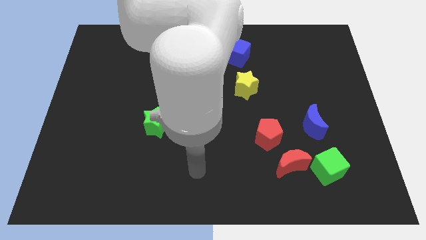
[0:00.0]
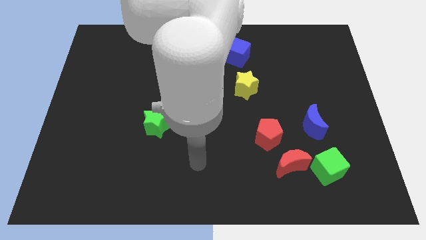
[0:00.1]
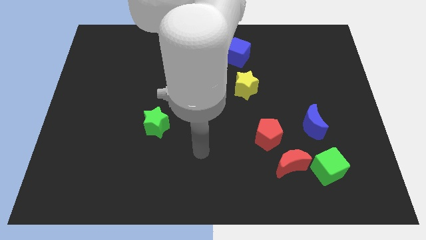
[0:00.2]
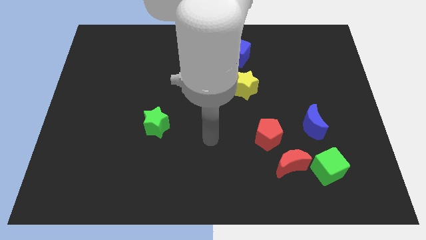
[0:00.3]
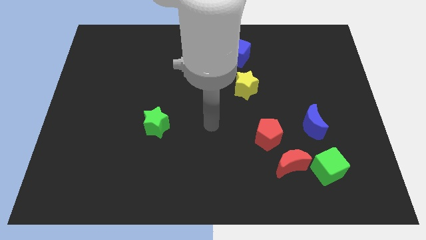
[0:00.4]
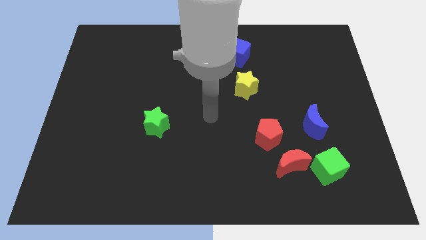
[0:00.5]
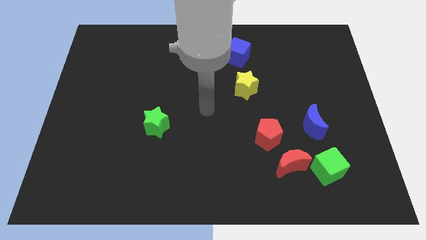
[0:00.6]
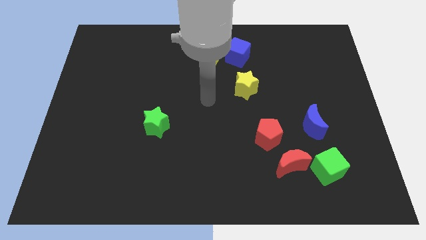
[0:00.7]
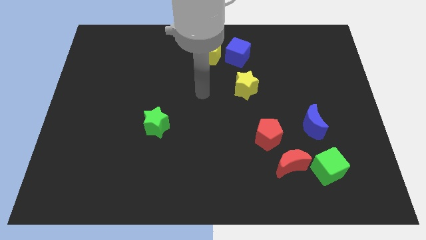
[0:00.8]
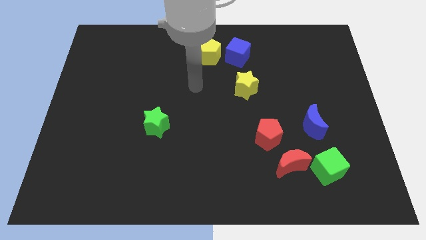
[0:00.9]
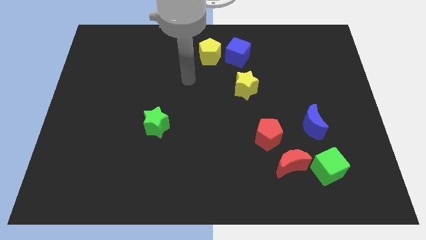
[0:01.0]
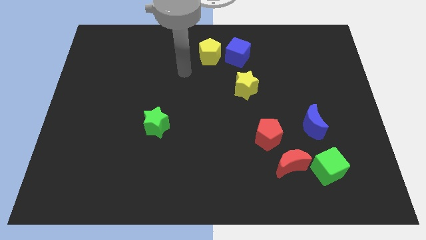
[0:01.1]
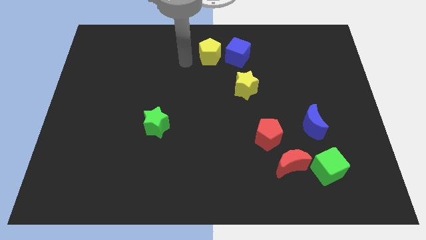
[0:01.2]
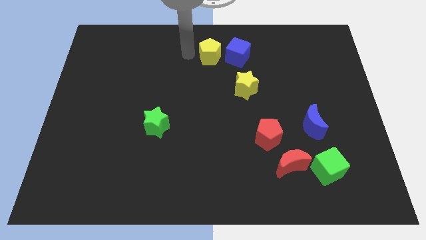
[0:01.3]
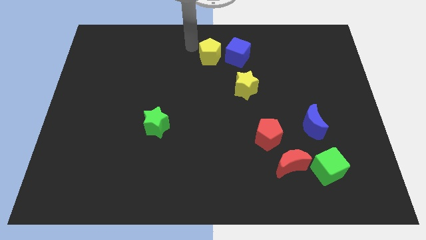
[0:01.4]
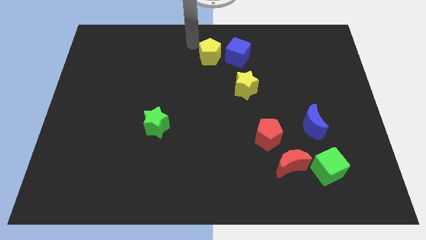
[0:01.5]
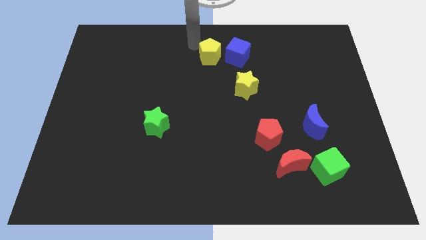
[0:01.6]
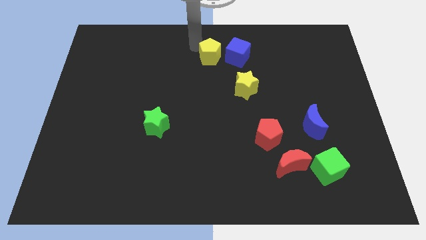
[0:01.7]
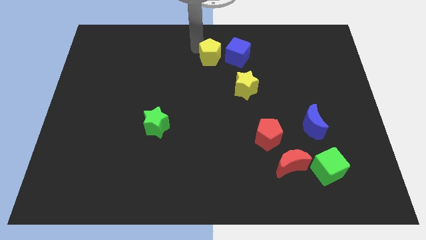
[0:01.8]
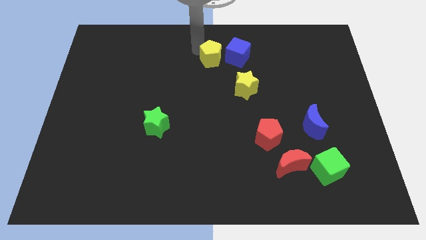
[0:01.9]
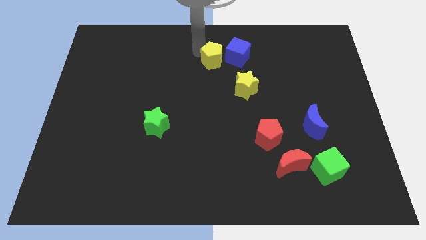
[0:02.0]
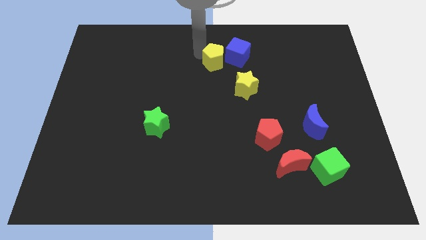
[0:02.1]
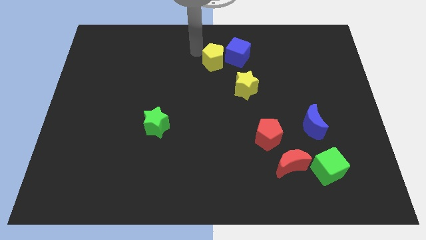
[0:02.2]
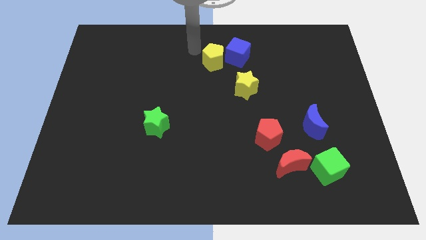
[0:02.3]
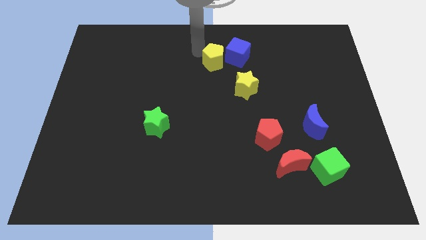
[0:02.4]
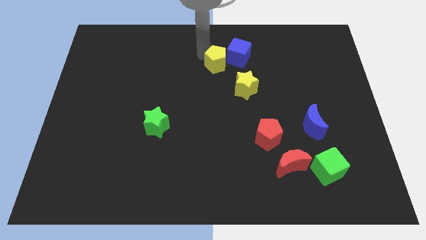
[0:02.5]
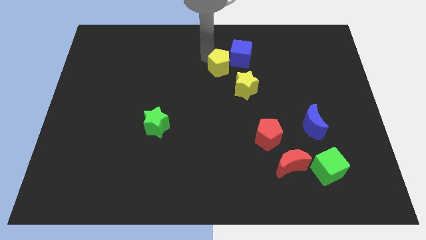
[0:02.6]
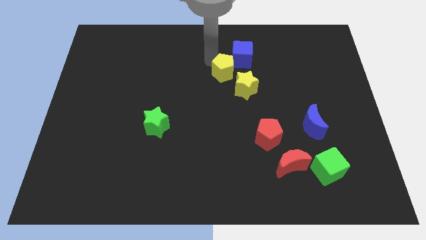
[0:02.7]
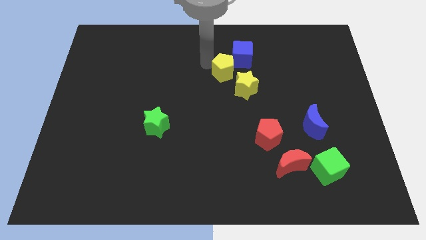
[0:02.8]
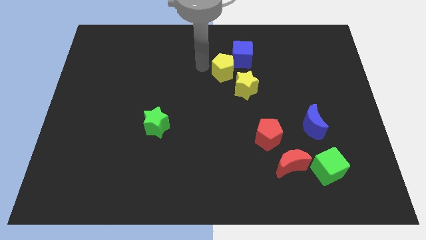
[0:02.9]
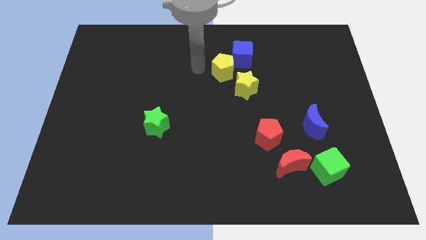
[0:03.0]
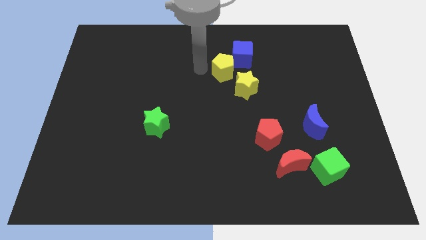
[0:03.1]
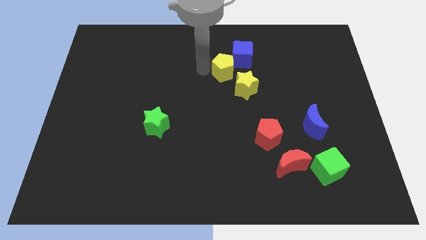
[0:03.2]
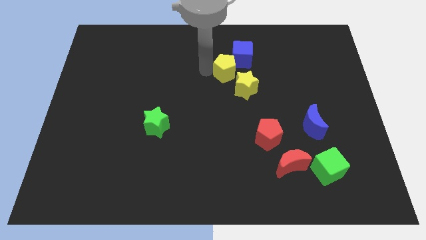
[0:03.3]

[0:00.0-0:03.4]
slide the yellow pentagon down and right a bit

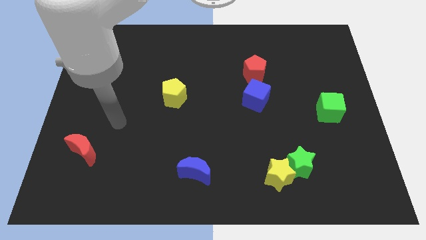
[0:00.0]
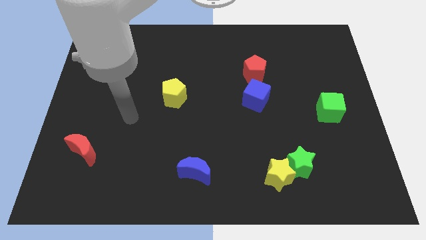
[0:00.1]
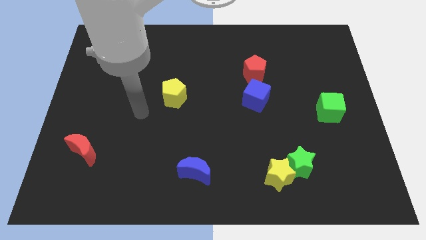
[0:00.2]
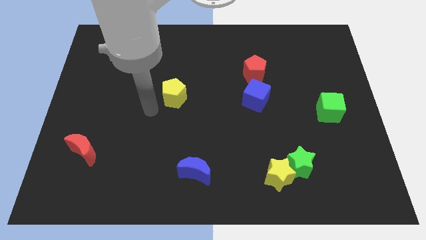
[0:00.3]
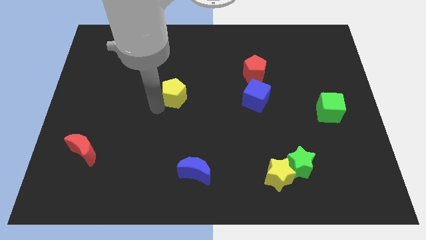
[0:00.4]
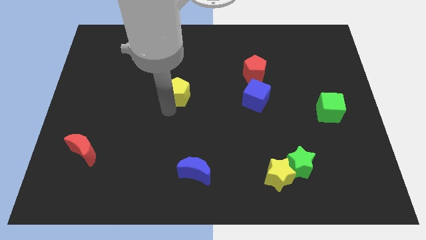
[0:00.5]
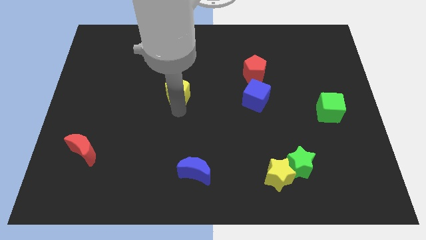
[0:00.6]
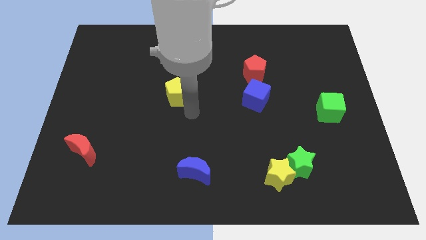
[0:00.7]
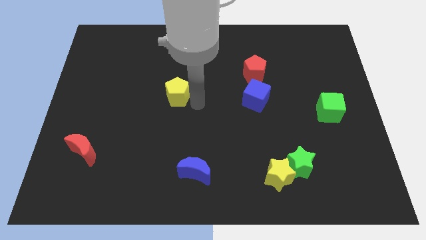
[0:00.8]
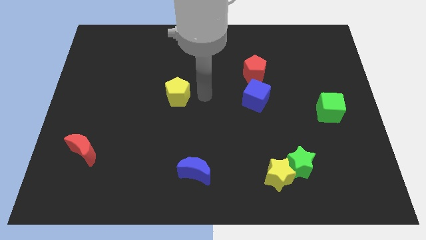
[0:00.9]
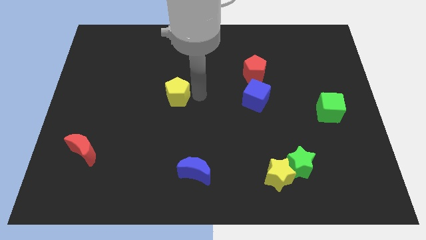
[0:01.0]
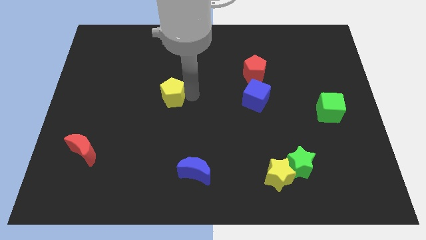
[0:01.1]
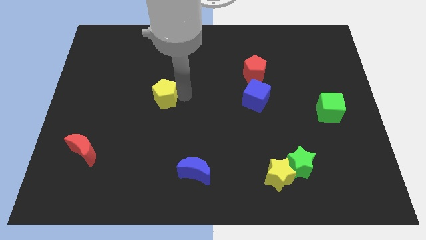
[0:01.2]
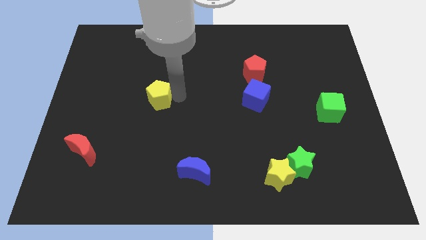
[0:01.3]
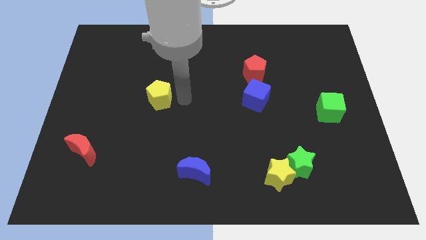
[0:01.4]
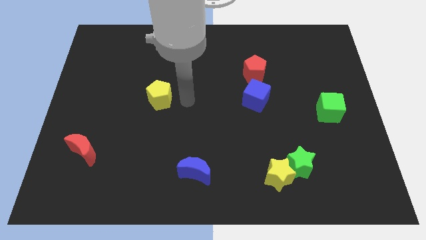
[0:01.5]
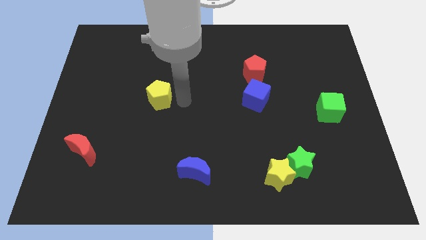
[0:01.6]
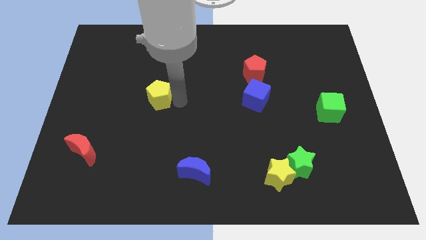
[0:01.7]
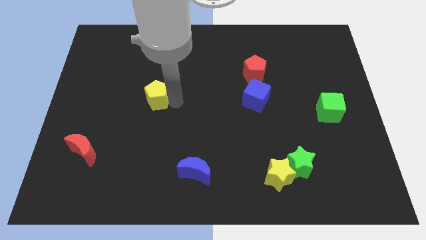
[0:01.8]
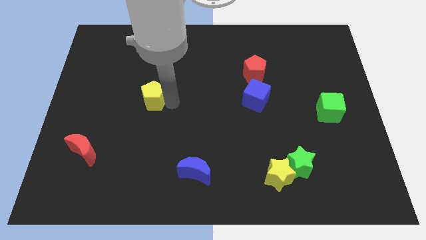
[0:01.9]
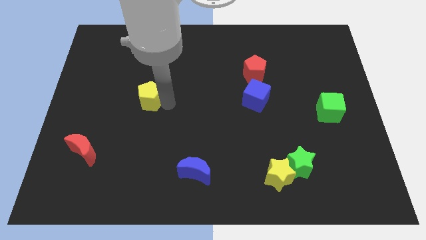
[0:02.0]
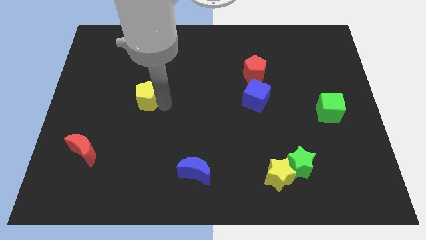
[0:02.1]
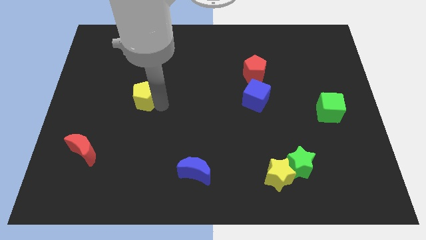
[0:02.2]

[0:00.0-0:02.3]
slightly slide the yellow pentagon to the left

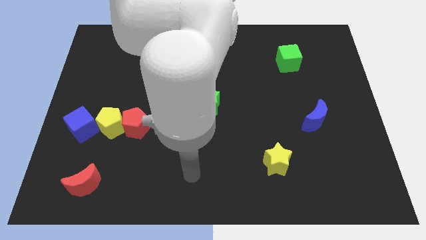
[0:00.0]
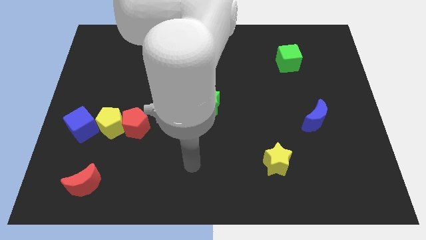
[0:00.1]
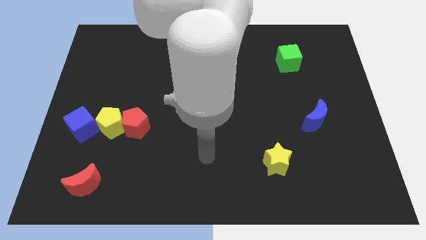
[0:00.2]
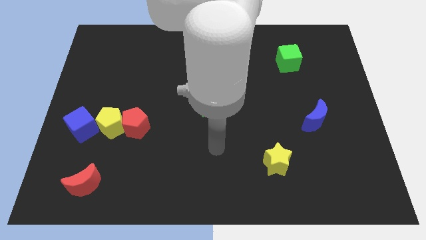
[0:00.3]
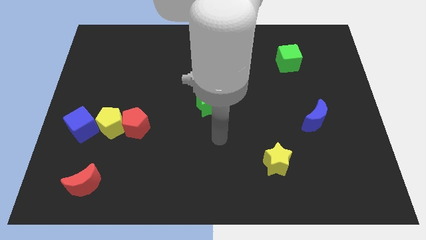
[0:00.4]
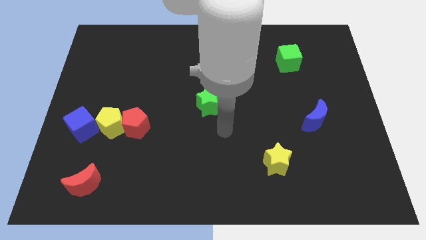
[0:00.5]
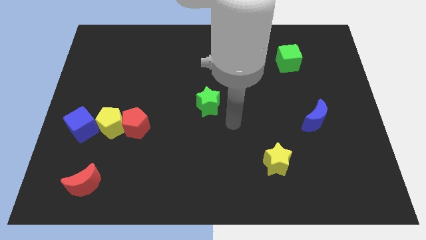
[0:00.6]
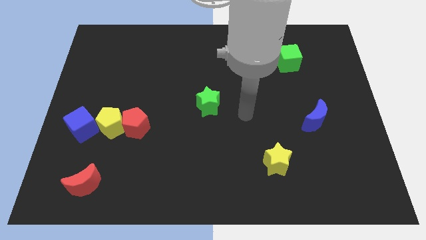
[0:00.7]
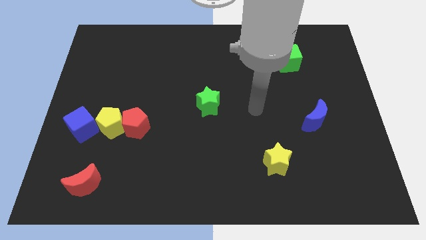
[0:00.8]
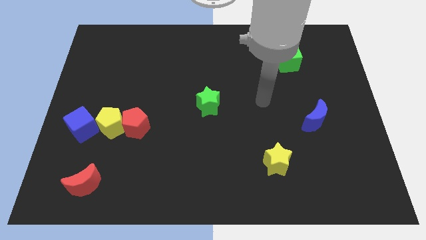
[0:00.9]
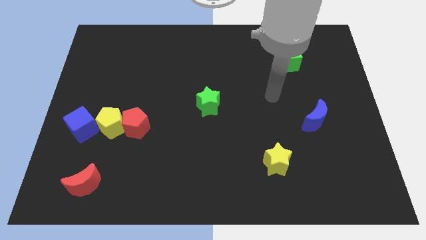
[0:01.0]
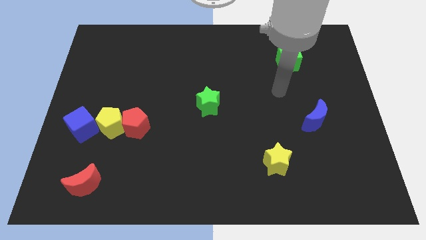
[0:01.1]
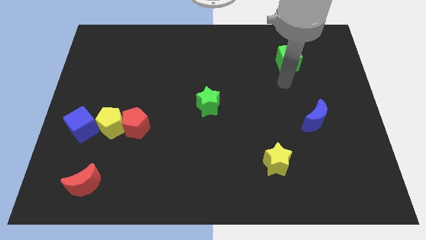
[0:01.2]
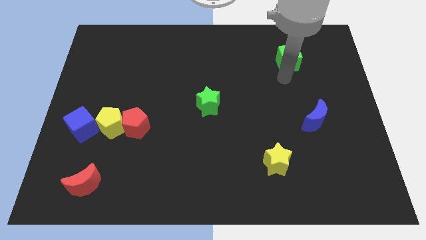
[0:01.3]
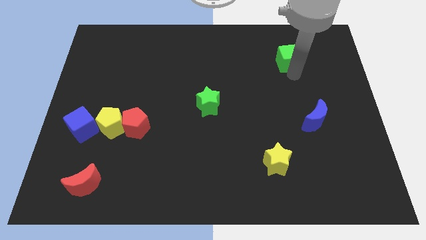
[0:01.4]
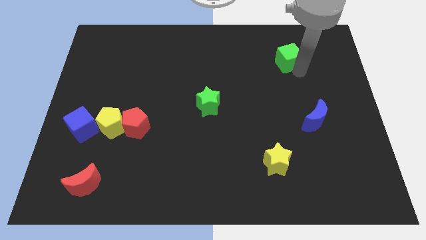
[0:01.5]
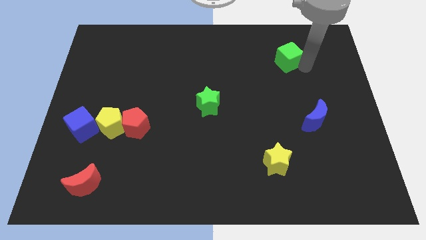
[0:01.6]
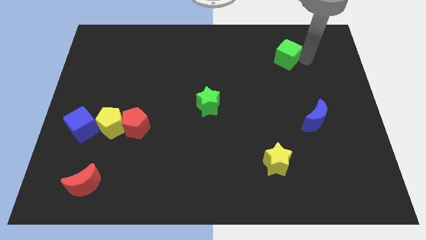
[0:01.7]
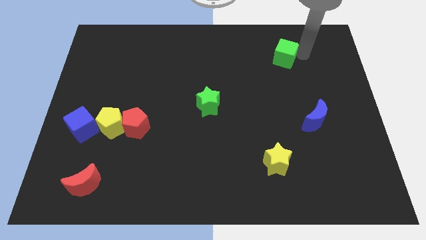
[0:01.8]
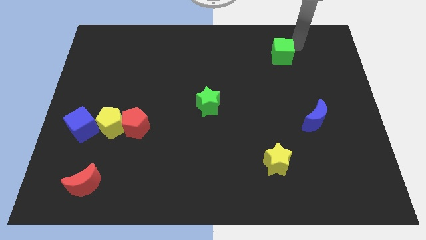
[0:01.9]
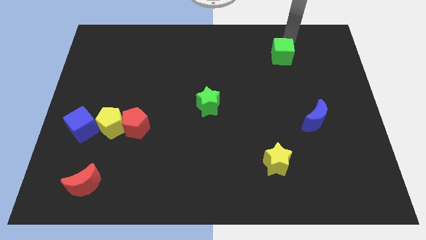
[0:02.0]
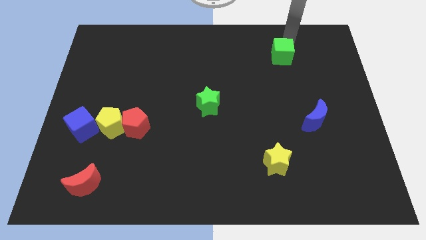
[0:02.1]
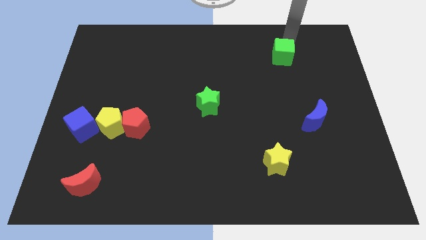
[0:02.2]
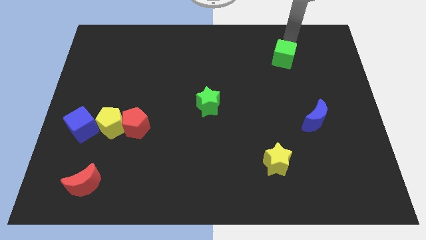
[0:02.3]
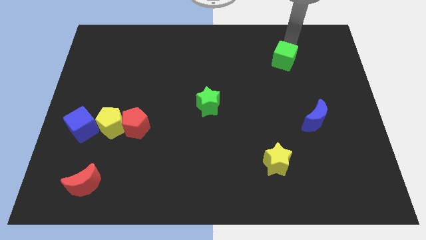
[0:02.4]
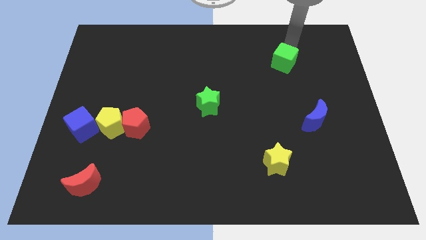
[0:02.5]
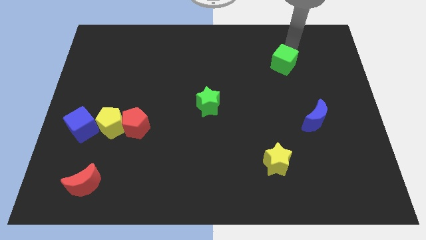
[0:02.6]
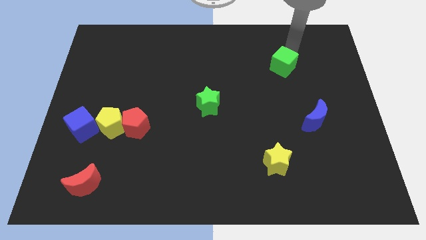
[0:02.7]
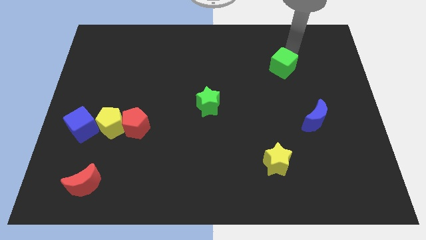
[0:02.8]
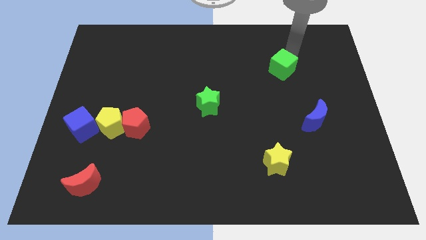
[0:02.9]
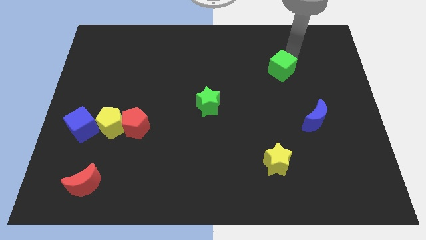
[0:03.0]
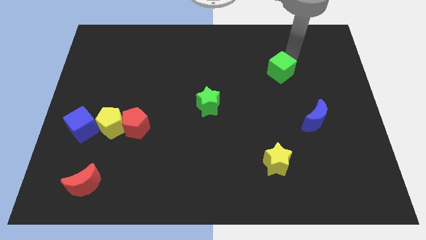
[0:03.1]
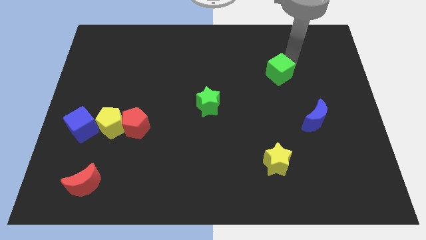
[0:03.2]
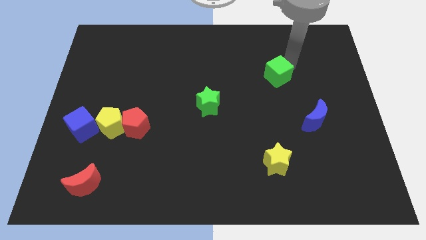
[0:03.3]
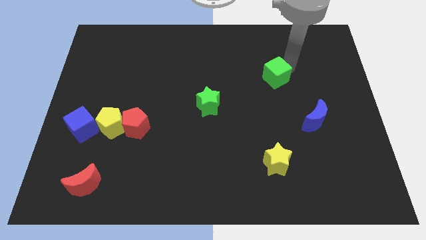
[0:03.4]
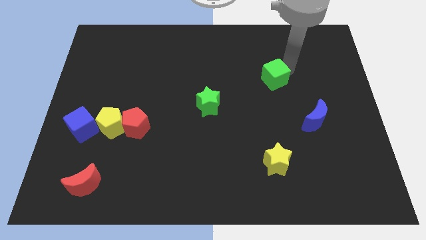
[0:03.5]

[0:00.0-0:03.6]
move the green cube a bit downwards and then left
